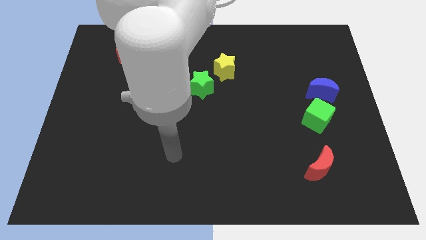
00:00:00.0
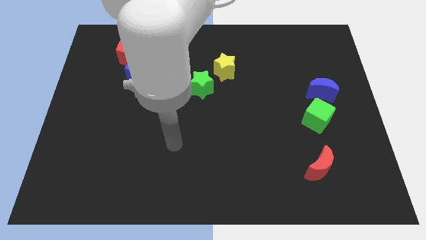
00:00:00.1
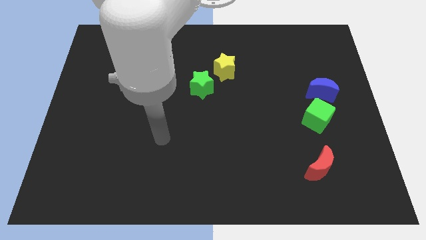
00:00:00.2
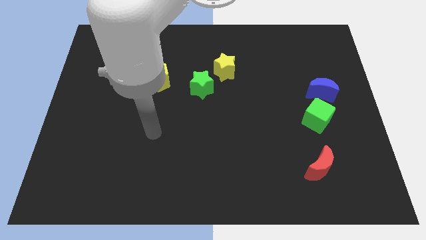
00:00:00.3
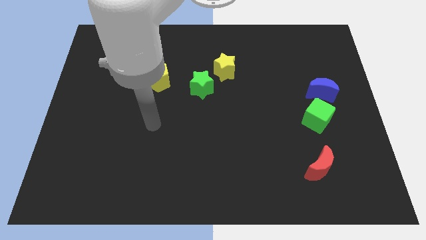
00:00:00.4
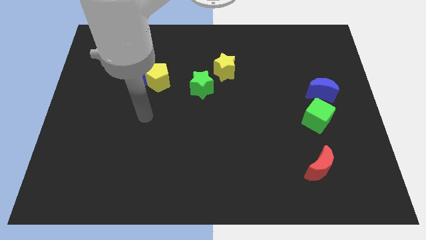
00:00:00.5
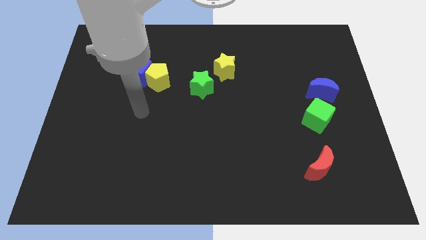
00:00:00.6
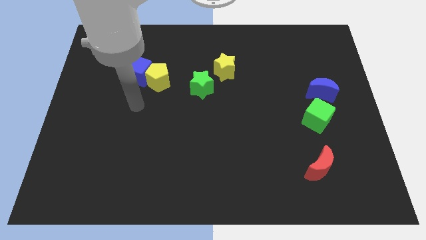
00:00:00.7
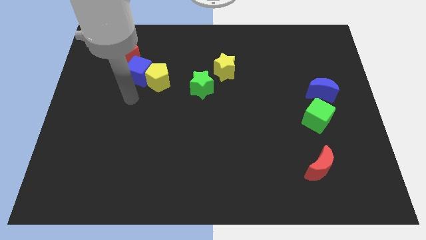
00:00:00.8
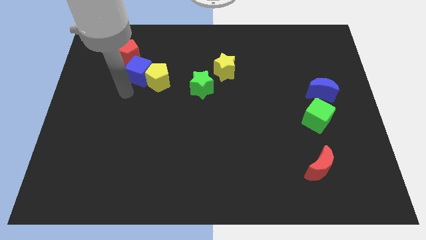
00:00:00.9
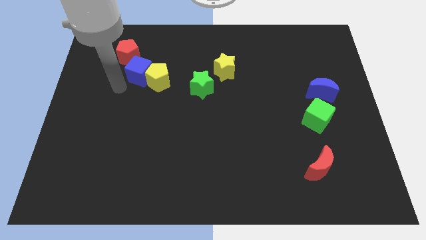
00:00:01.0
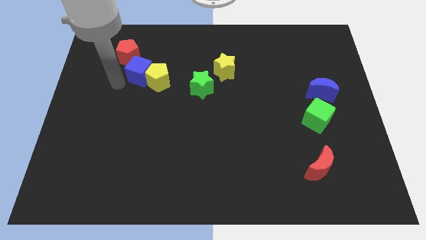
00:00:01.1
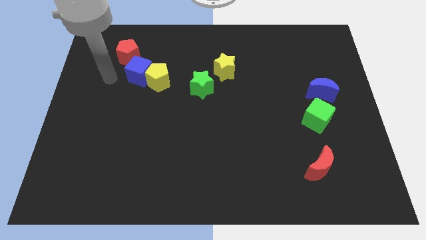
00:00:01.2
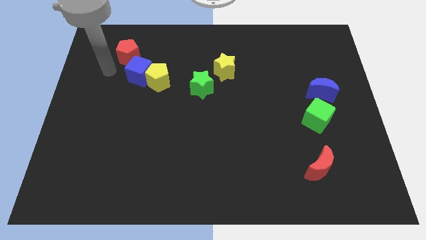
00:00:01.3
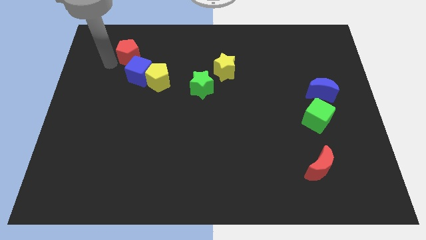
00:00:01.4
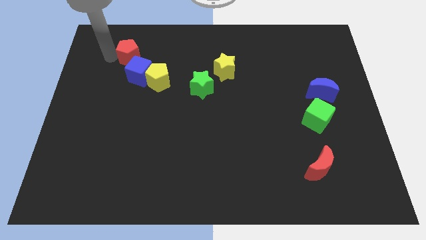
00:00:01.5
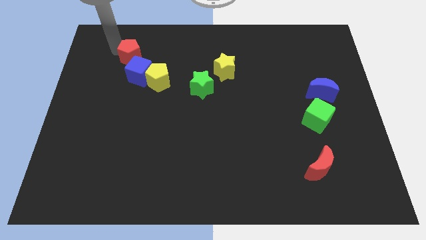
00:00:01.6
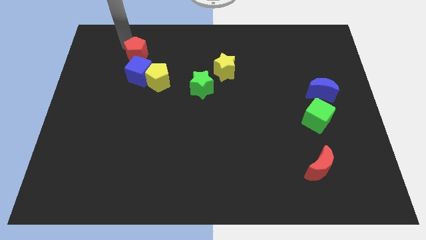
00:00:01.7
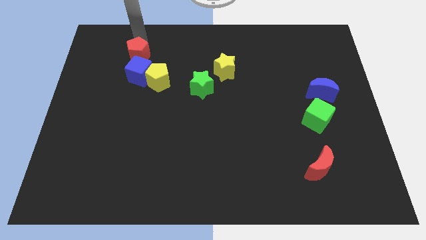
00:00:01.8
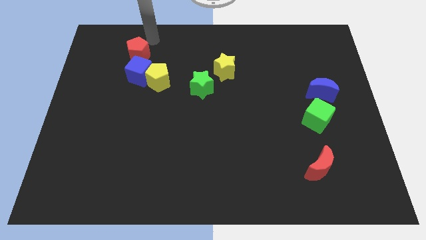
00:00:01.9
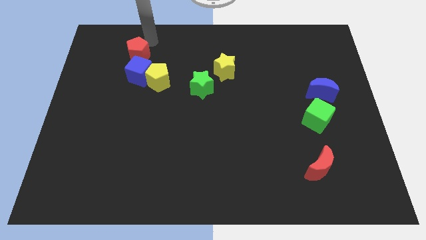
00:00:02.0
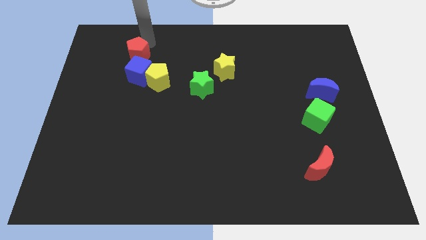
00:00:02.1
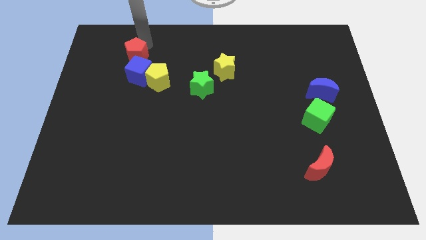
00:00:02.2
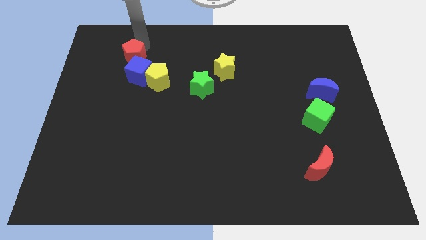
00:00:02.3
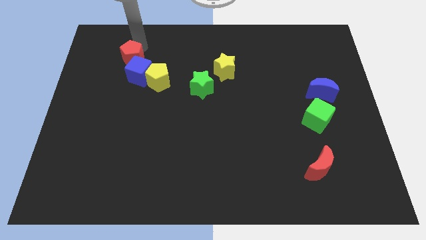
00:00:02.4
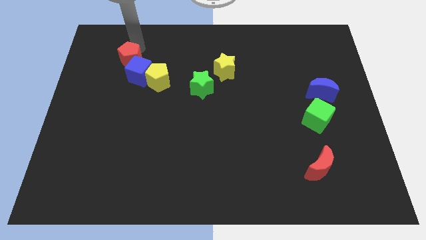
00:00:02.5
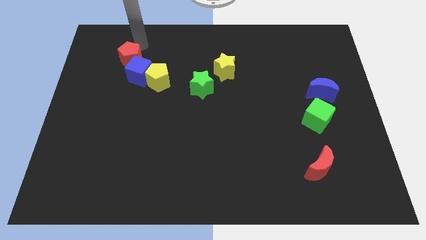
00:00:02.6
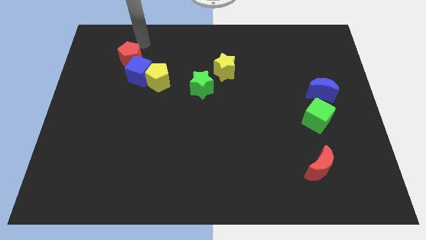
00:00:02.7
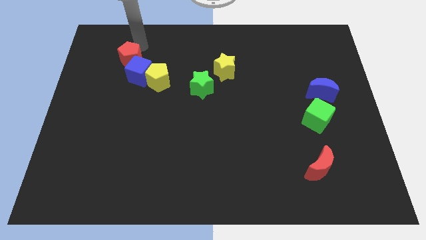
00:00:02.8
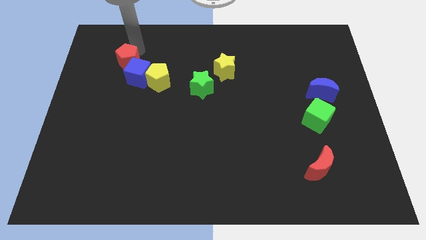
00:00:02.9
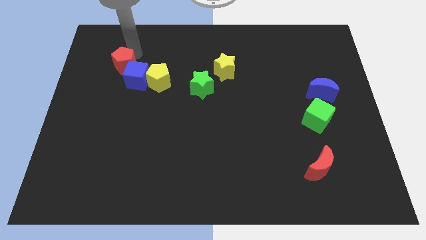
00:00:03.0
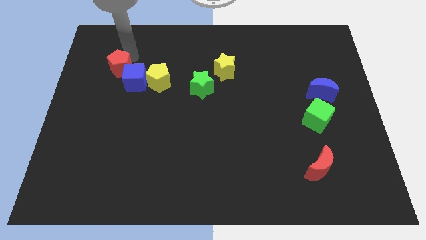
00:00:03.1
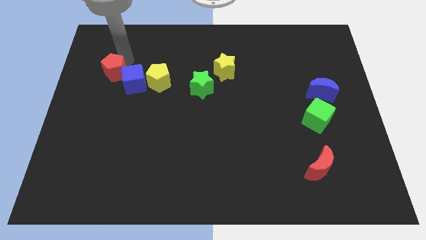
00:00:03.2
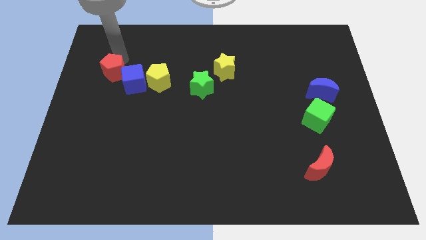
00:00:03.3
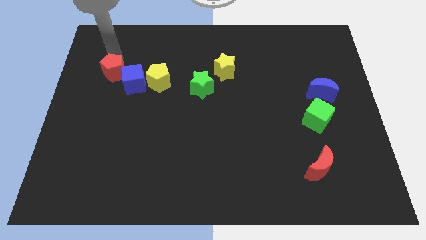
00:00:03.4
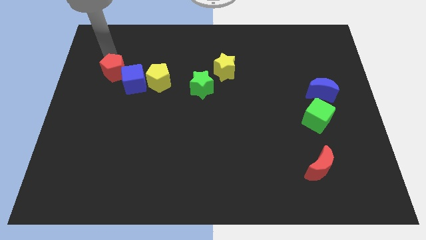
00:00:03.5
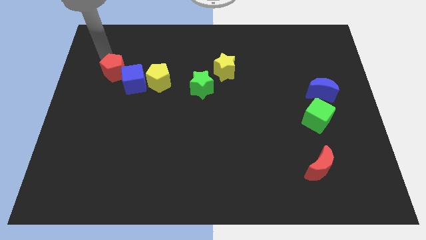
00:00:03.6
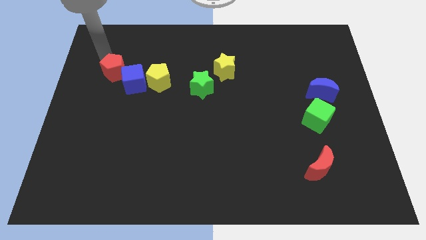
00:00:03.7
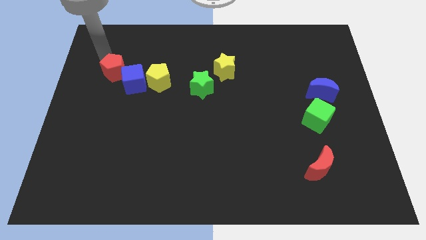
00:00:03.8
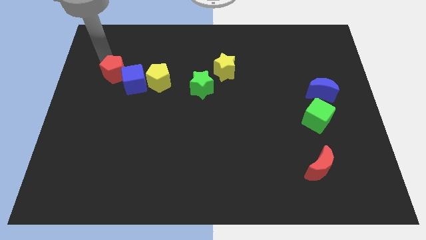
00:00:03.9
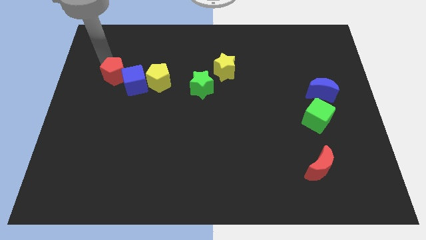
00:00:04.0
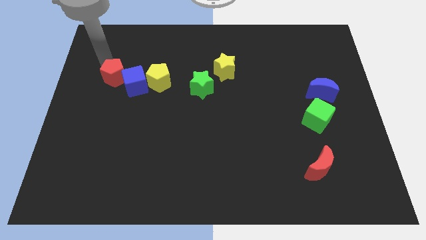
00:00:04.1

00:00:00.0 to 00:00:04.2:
push the red pentagon down somewhat

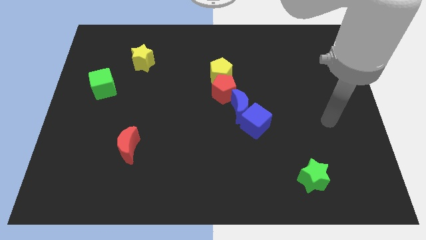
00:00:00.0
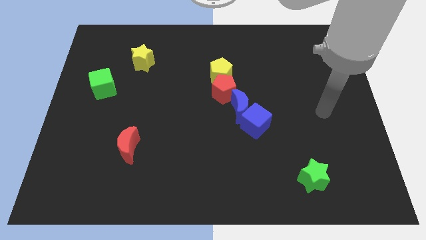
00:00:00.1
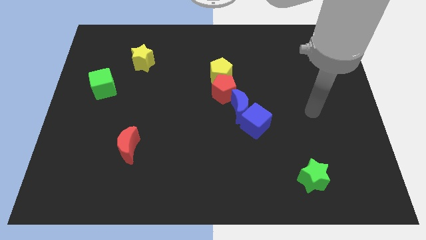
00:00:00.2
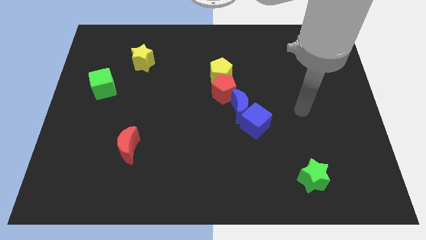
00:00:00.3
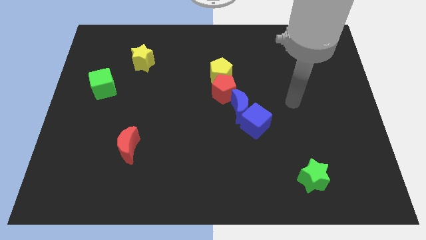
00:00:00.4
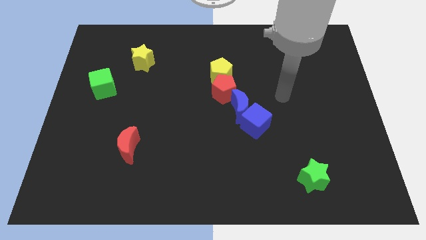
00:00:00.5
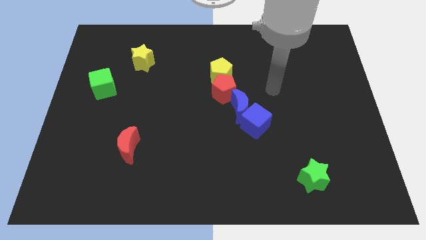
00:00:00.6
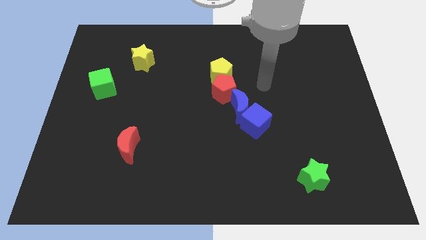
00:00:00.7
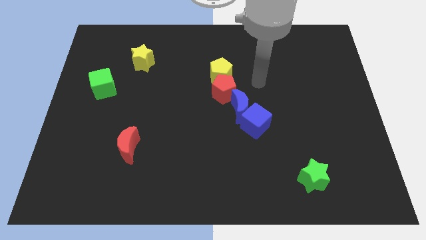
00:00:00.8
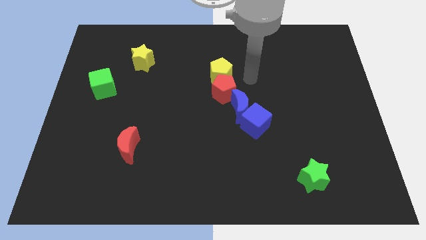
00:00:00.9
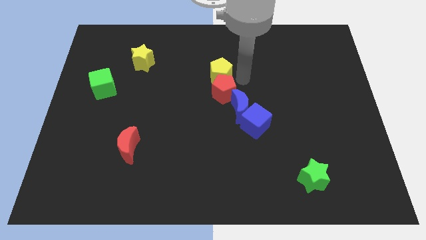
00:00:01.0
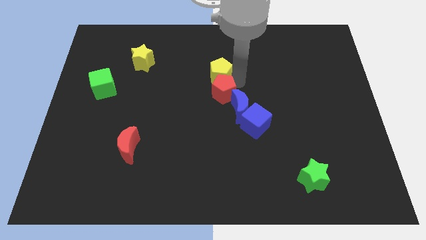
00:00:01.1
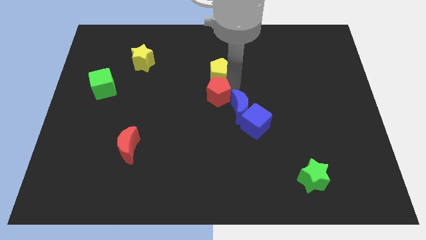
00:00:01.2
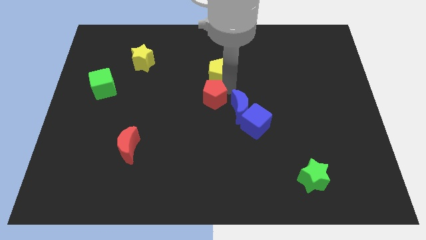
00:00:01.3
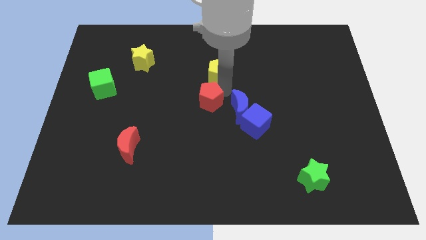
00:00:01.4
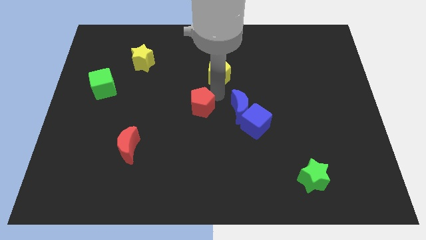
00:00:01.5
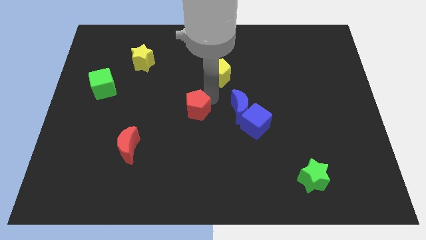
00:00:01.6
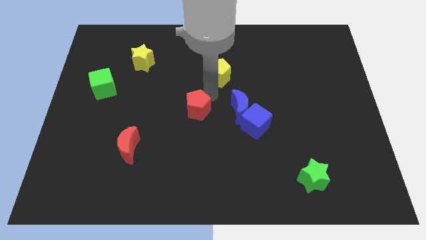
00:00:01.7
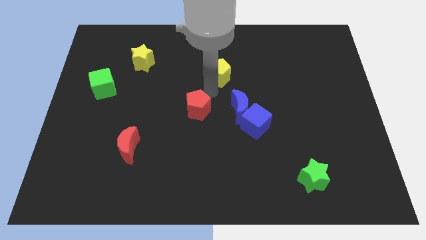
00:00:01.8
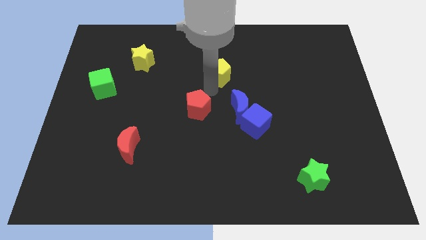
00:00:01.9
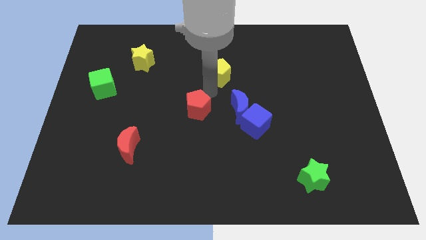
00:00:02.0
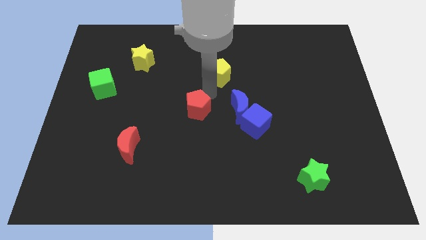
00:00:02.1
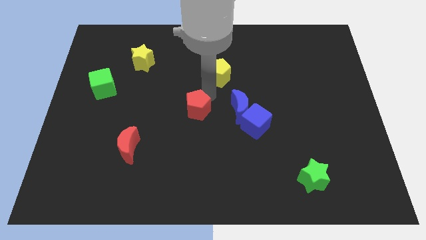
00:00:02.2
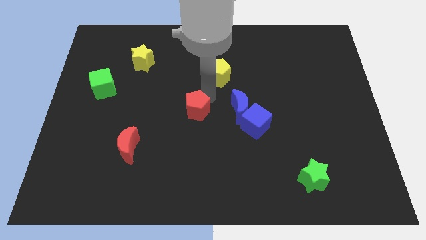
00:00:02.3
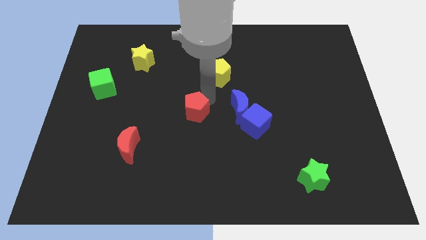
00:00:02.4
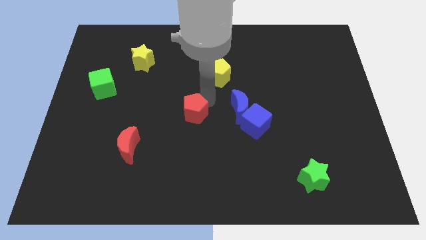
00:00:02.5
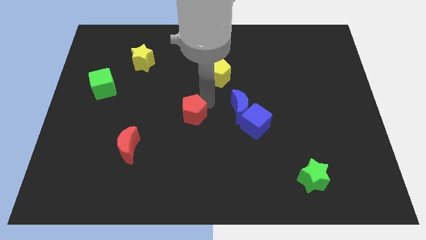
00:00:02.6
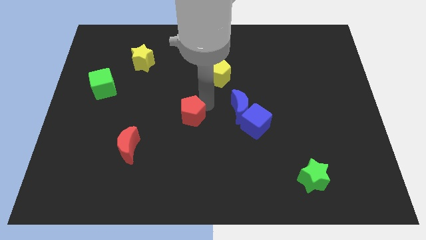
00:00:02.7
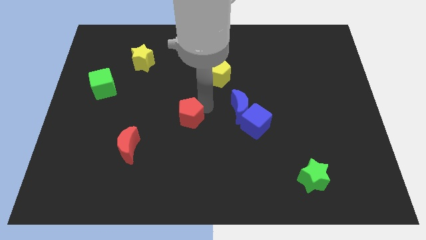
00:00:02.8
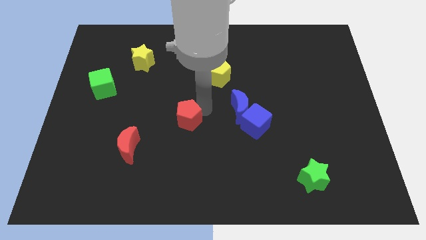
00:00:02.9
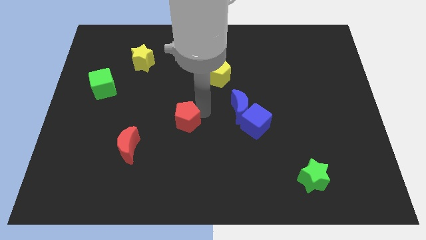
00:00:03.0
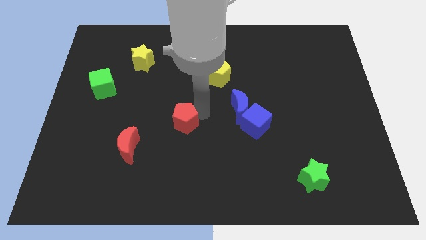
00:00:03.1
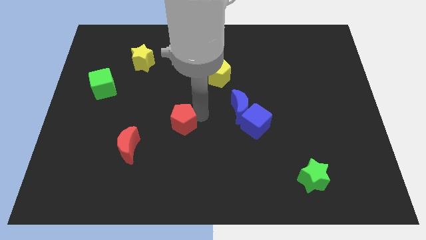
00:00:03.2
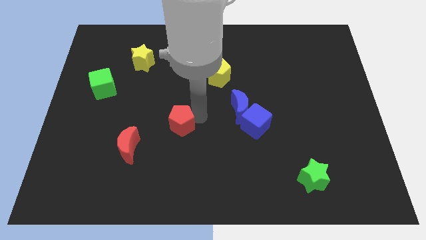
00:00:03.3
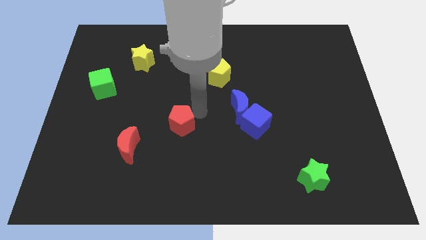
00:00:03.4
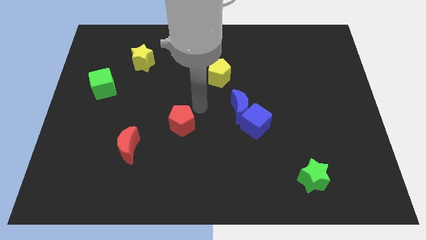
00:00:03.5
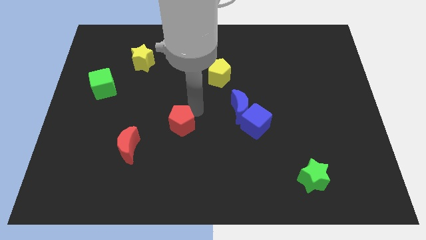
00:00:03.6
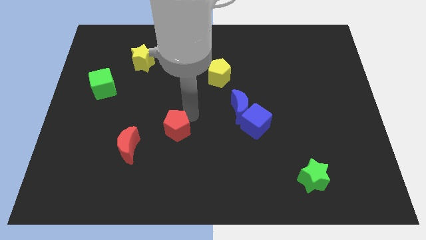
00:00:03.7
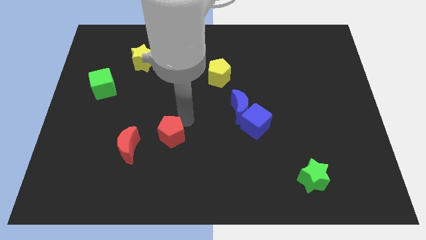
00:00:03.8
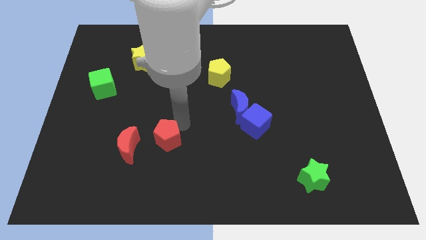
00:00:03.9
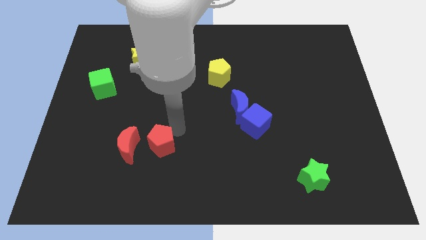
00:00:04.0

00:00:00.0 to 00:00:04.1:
slide the red pentagon diagonally downwards and left
